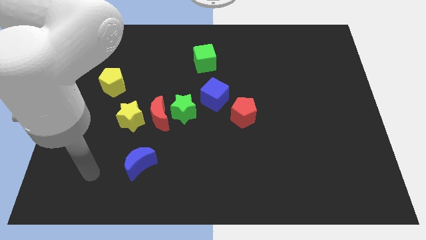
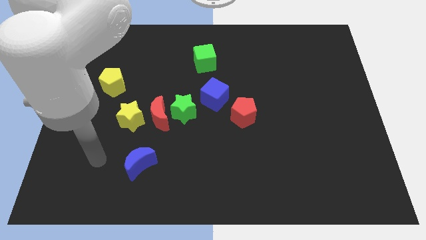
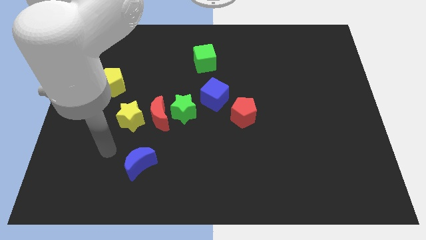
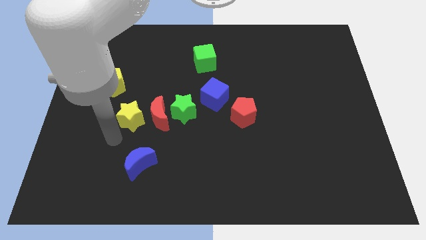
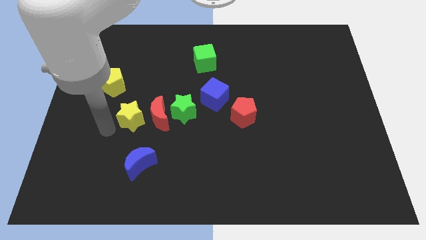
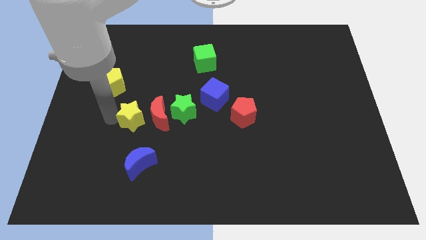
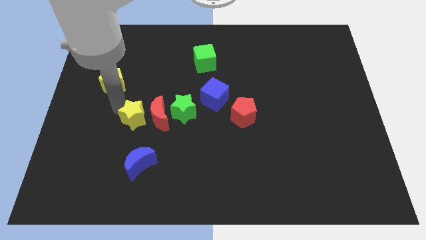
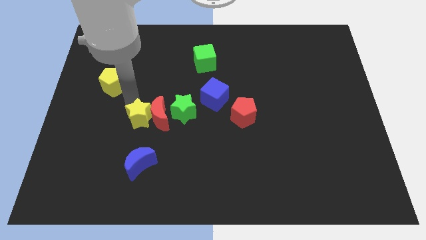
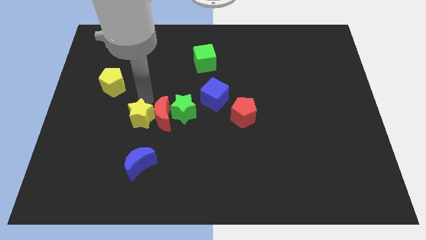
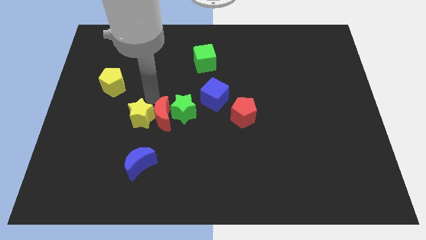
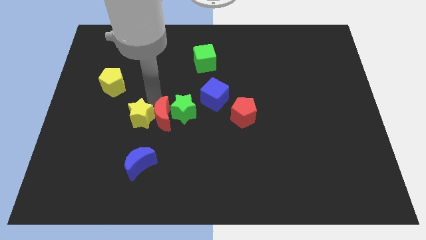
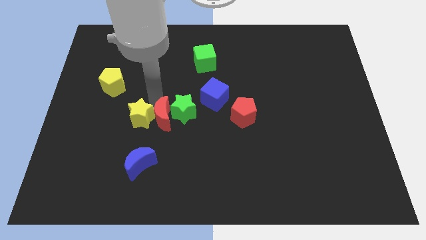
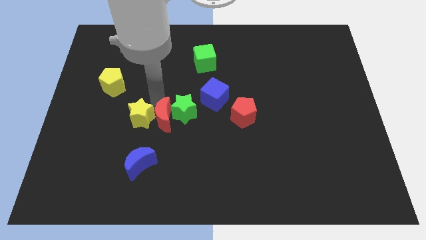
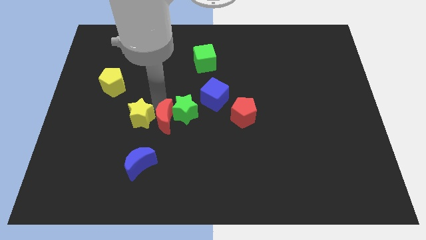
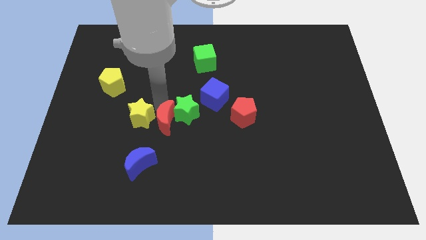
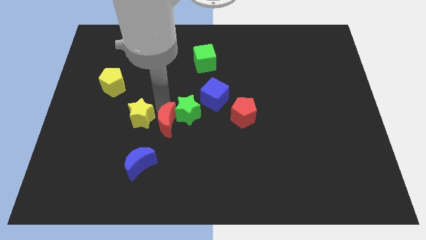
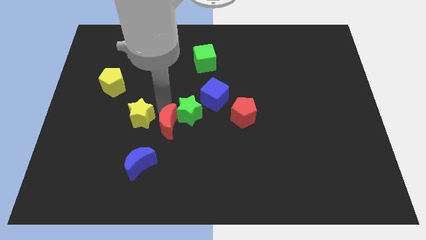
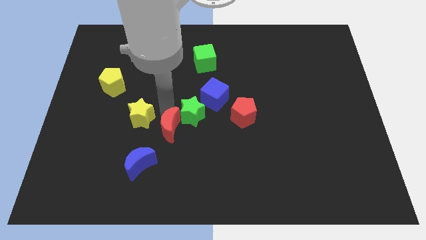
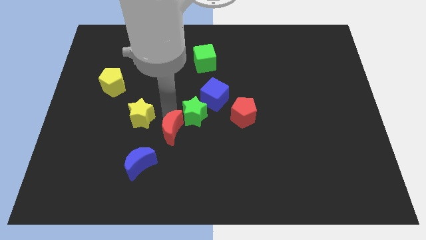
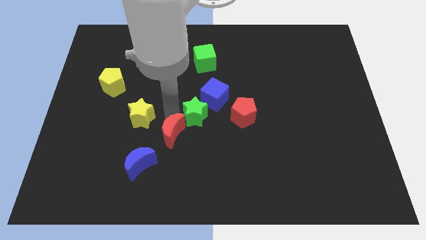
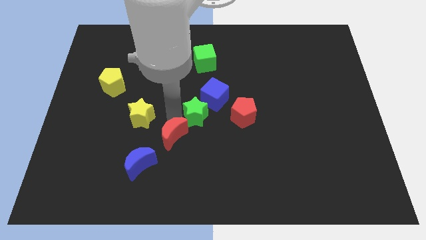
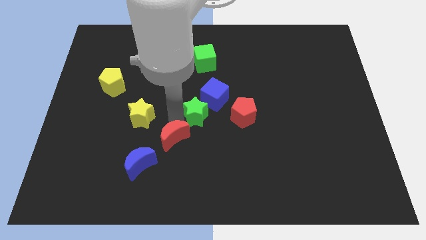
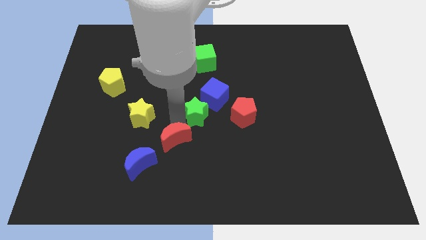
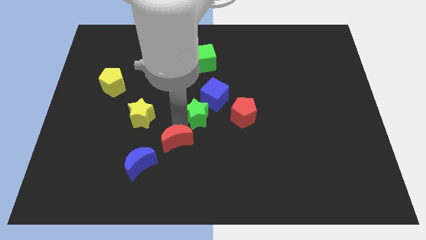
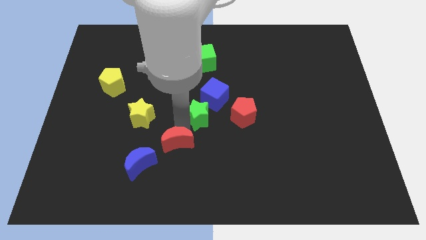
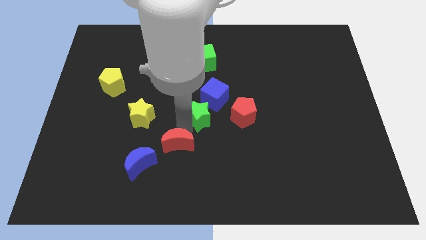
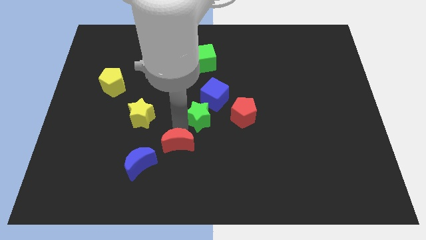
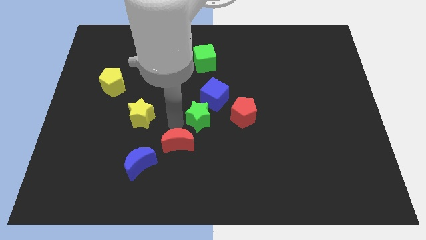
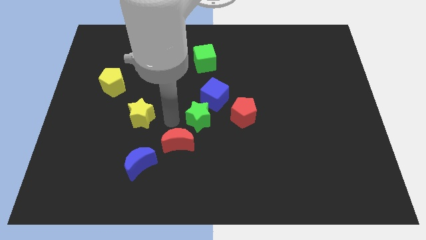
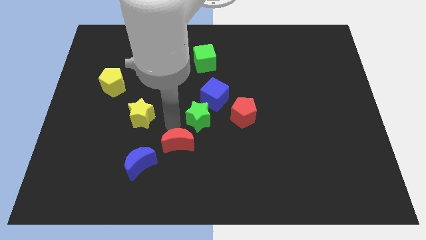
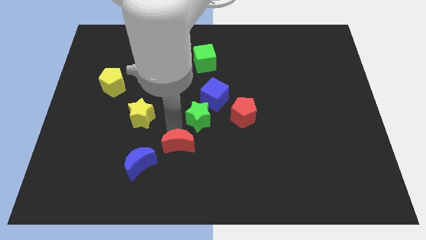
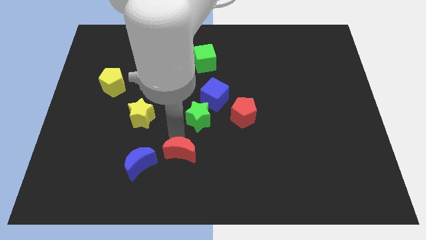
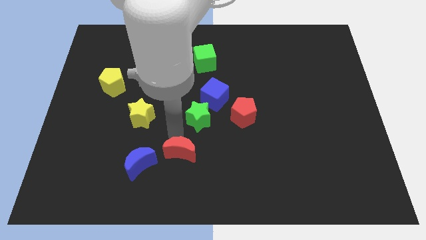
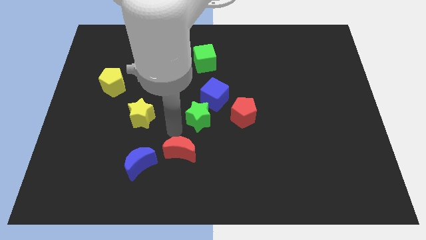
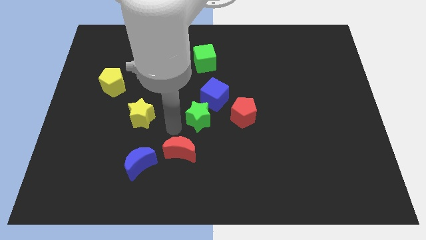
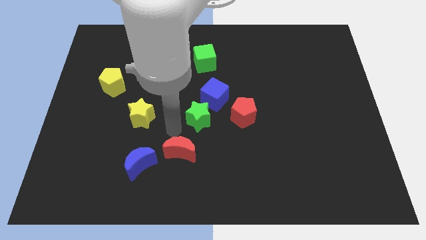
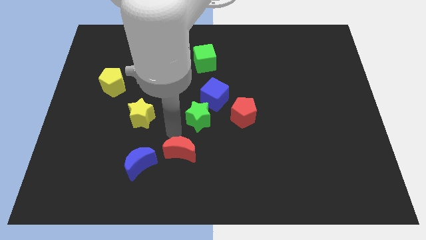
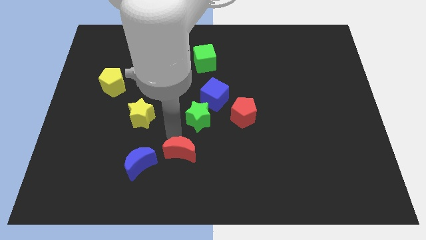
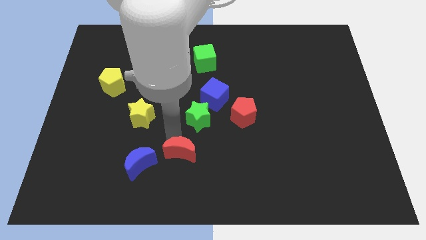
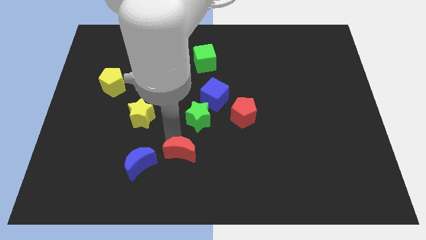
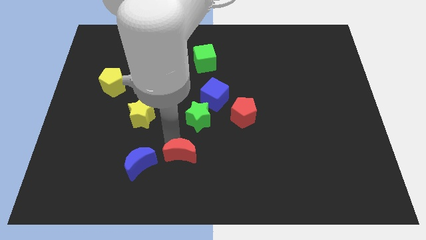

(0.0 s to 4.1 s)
pull the red moon apart from the green star and yellow star

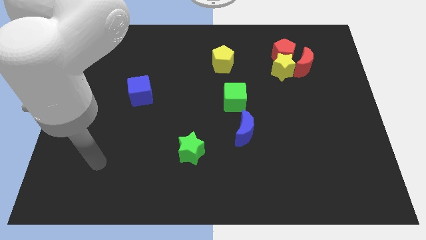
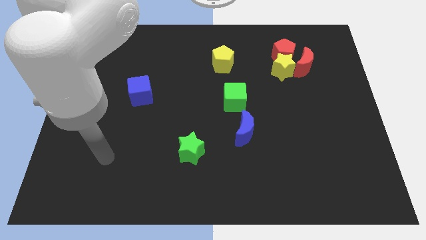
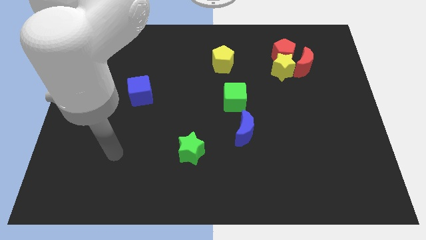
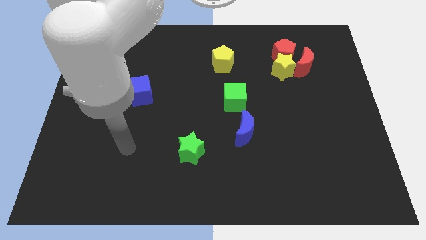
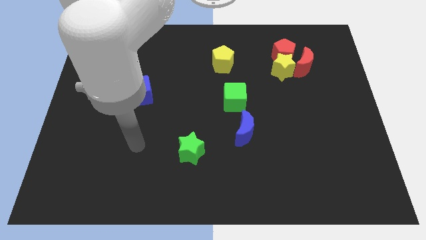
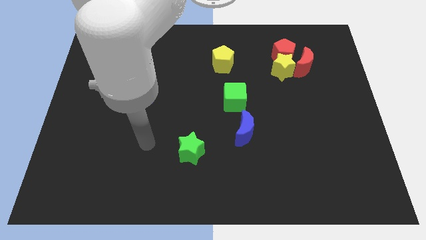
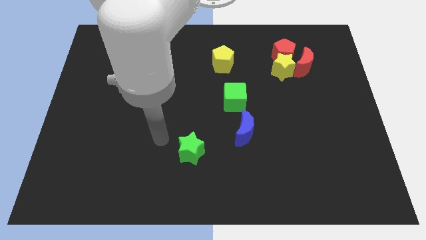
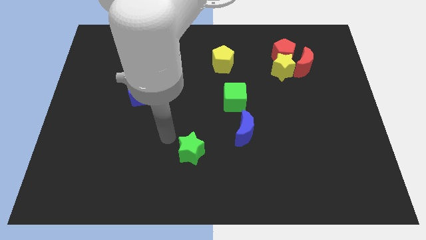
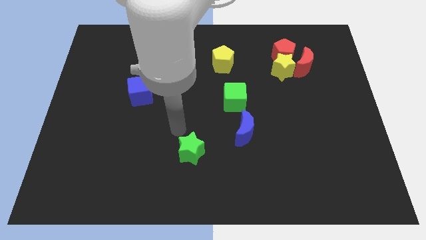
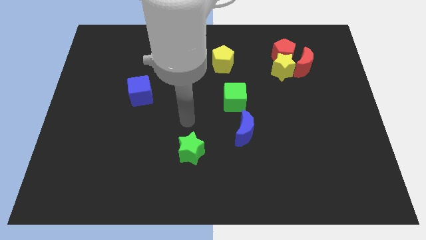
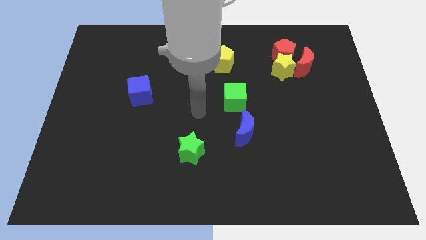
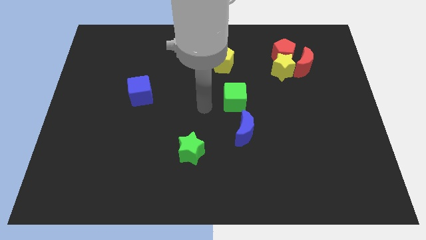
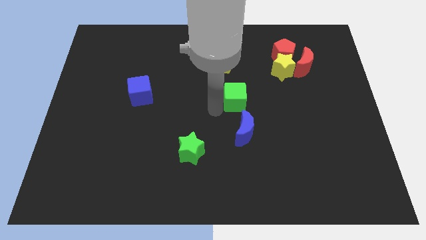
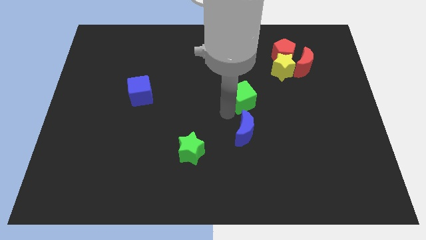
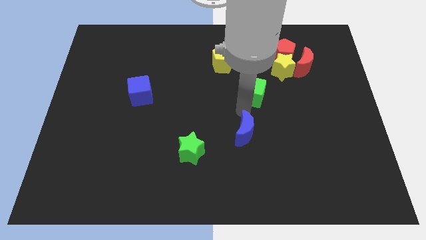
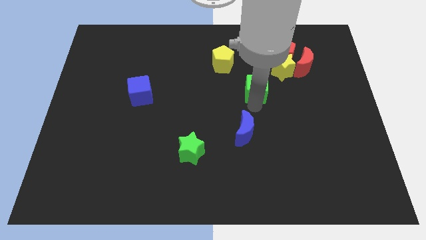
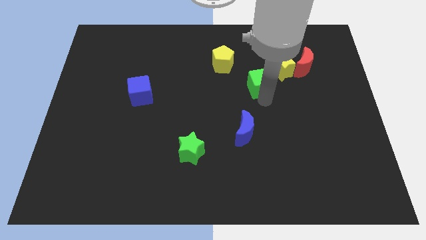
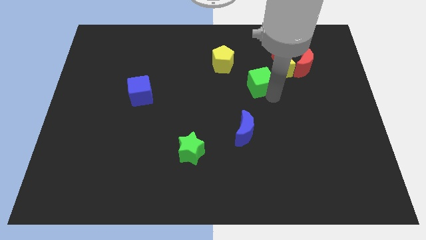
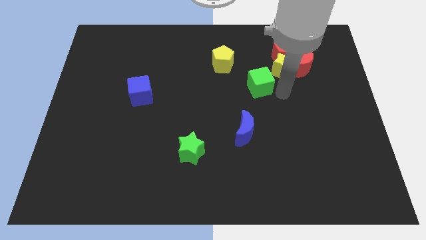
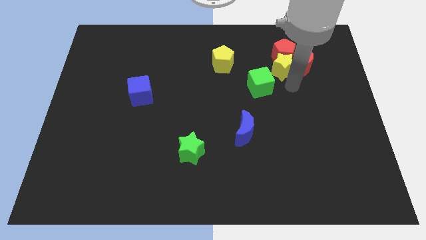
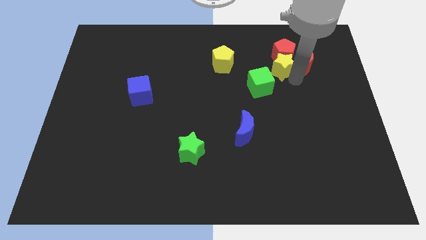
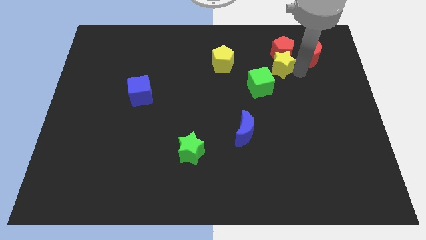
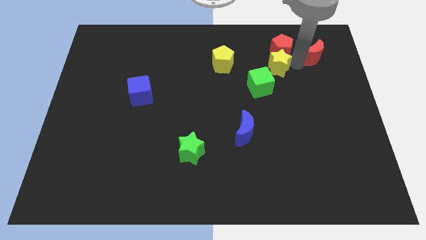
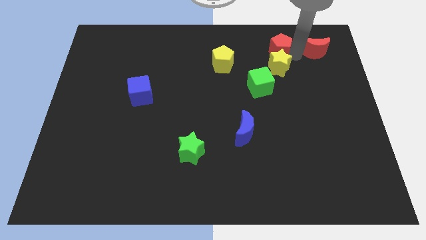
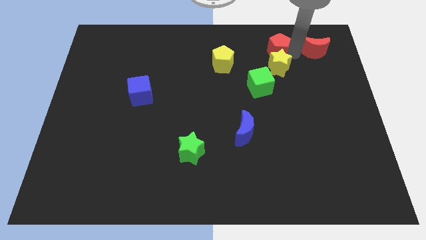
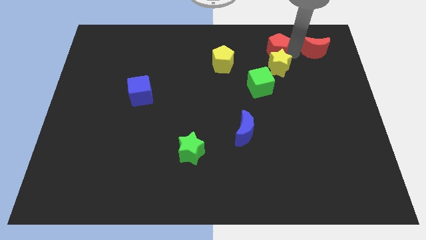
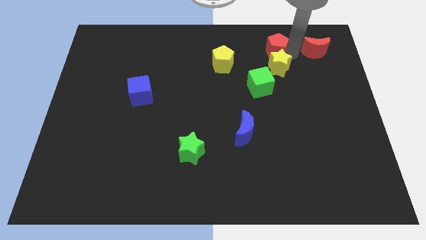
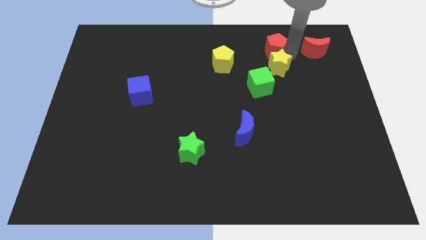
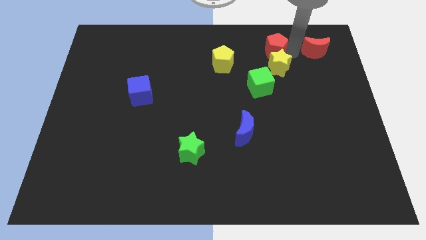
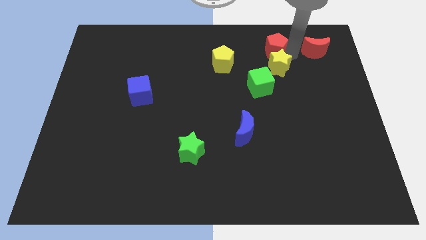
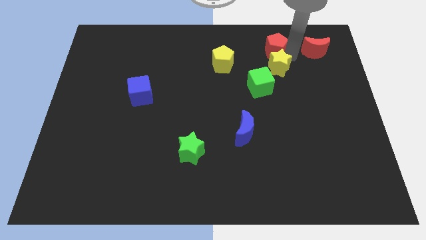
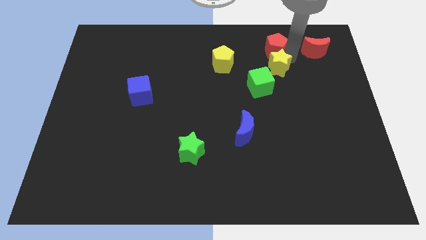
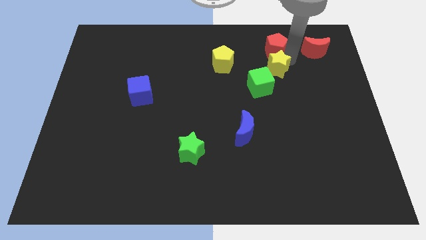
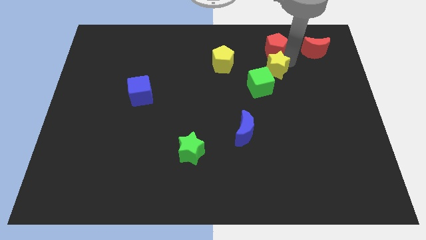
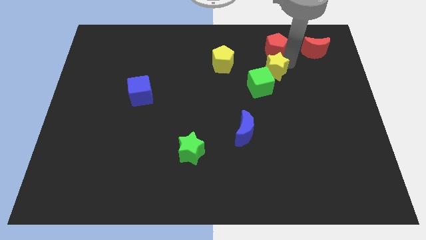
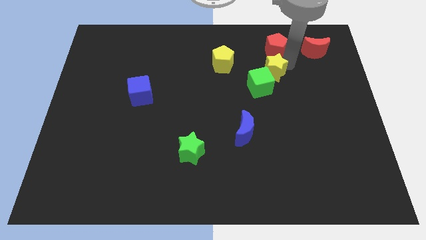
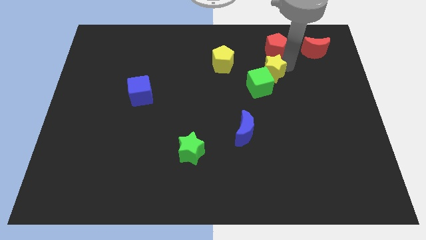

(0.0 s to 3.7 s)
move the yellow star away from the red pentagon and red moon

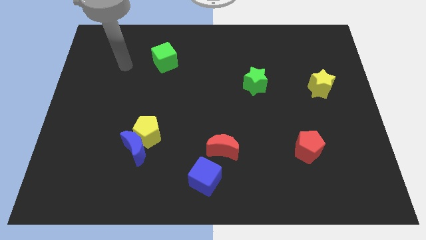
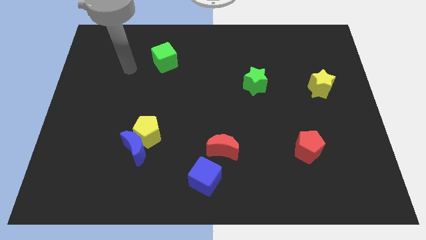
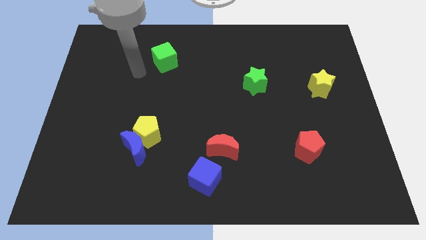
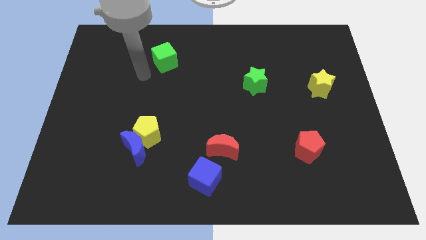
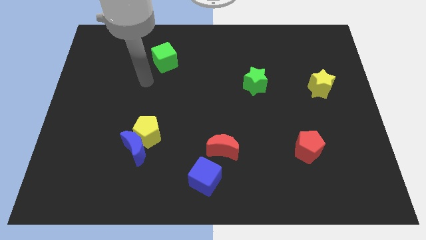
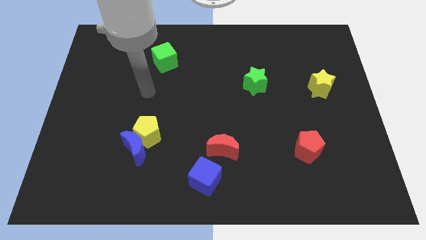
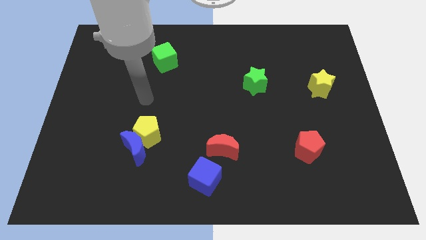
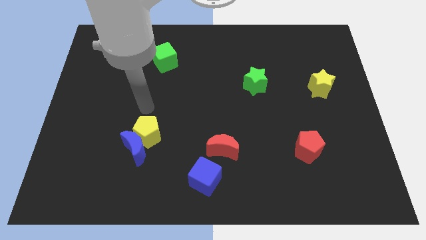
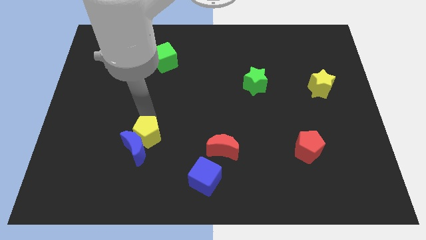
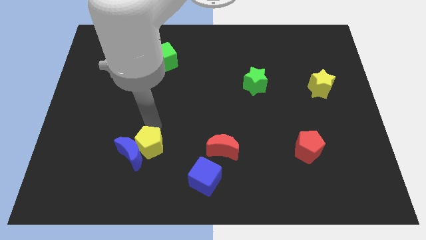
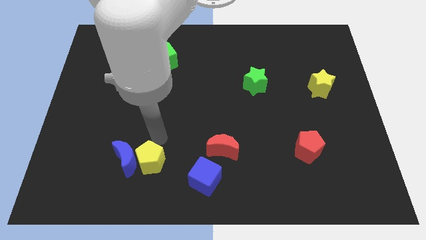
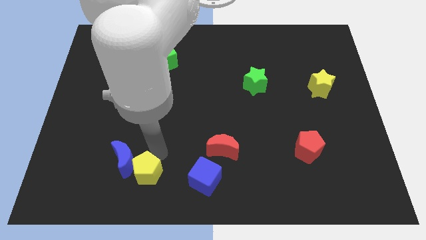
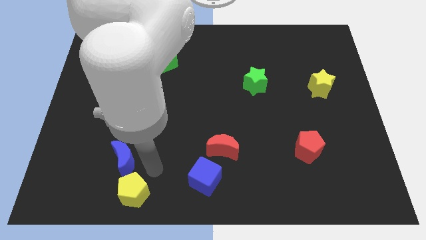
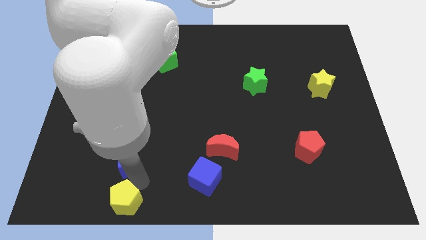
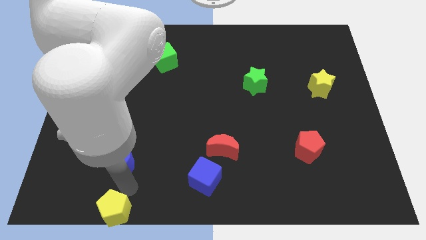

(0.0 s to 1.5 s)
separate the blue moon from the yellow pentagon
